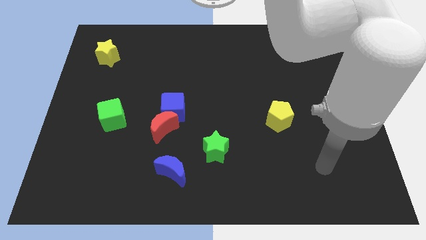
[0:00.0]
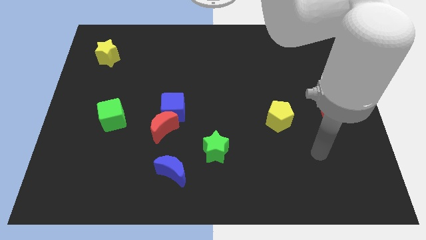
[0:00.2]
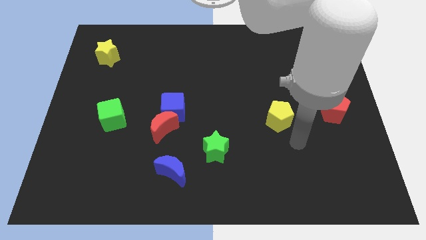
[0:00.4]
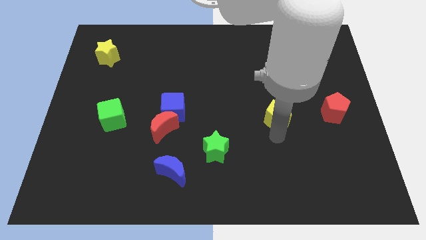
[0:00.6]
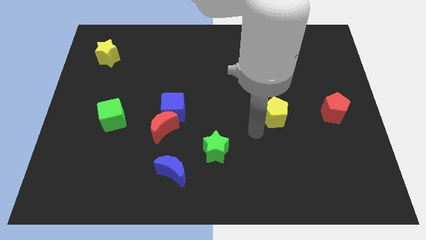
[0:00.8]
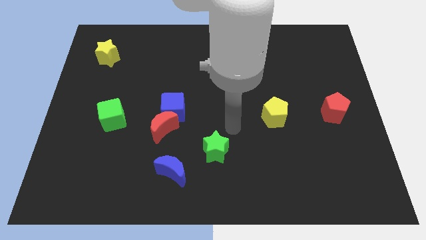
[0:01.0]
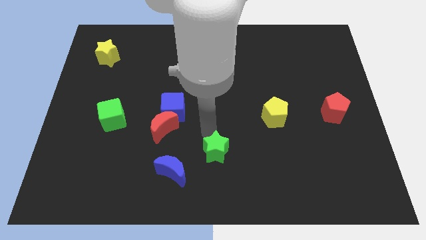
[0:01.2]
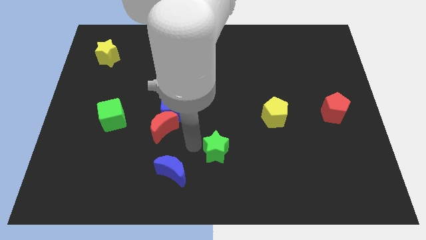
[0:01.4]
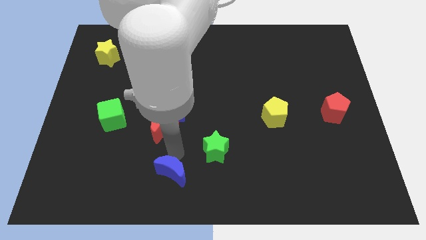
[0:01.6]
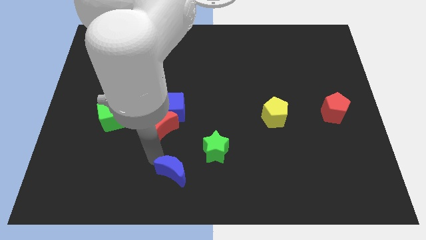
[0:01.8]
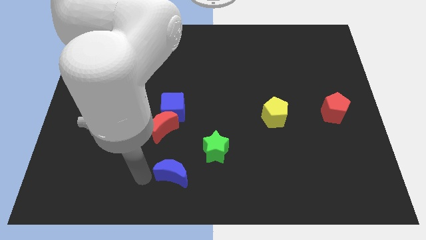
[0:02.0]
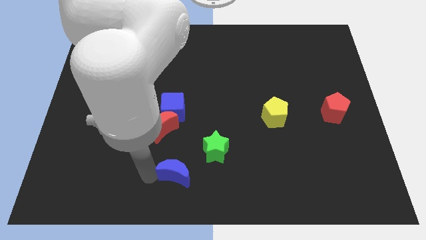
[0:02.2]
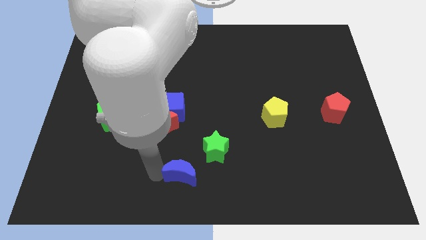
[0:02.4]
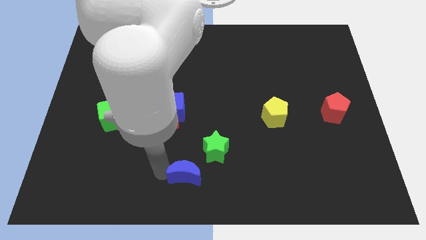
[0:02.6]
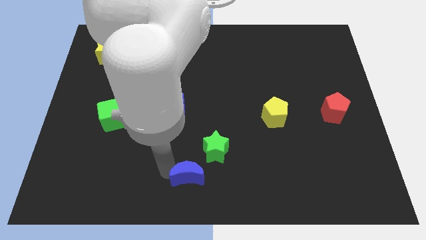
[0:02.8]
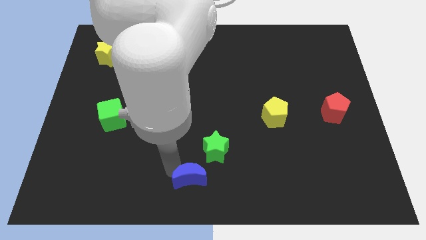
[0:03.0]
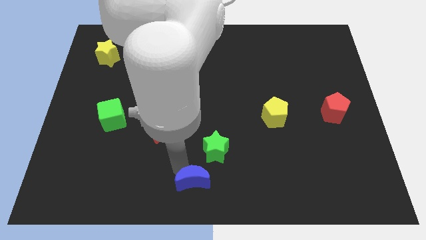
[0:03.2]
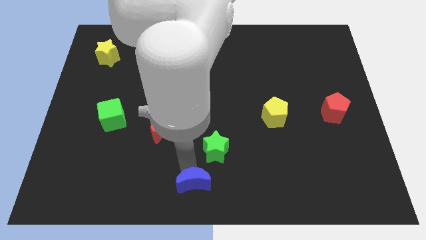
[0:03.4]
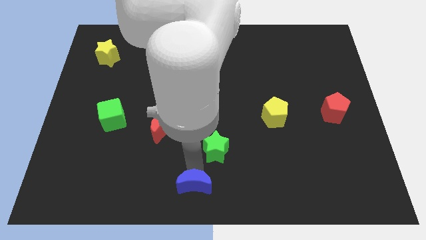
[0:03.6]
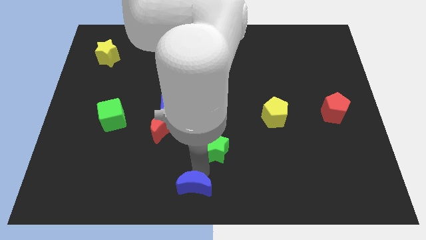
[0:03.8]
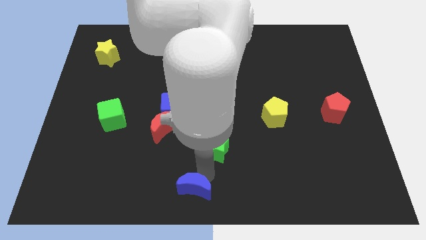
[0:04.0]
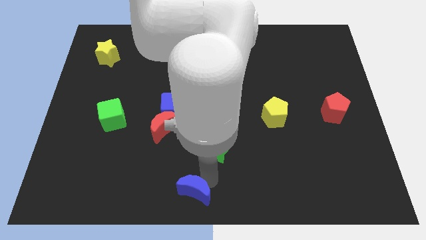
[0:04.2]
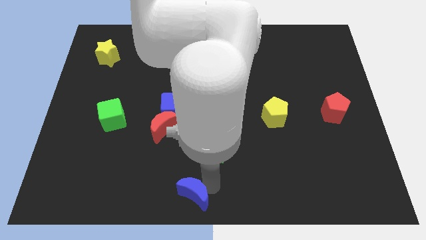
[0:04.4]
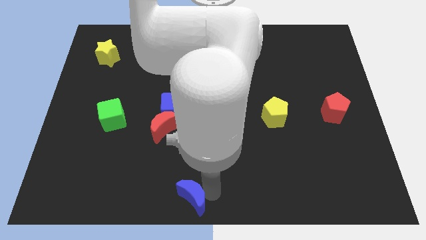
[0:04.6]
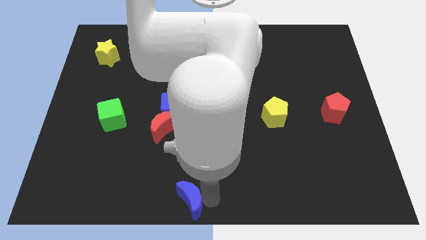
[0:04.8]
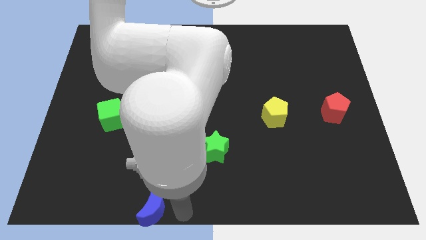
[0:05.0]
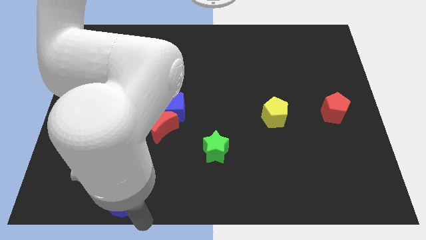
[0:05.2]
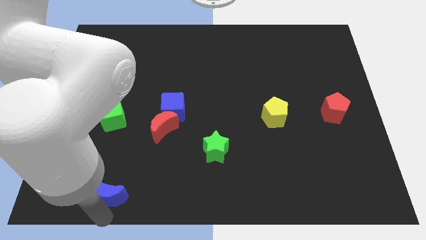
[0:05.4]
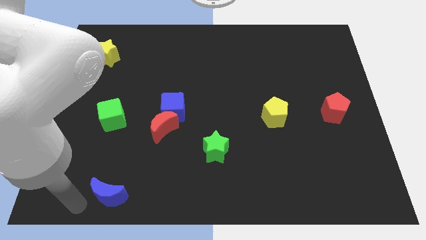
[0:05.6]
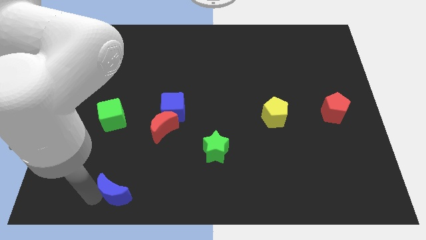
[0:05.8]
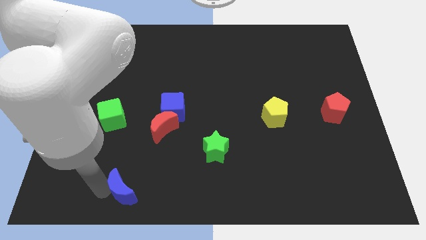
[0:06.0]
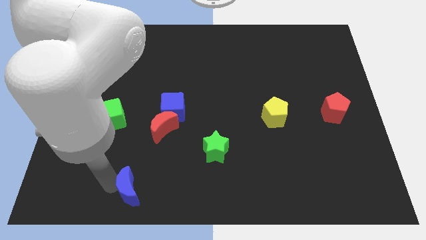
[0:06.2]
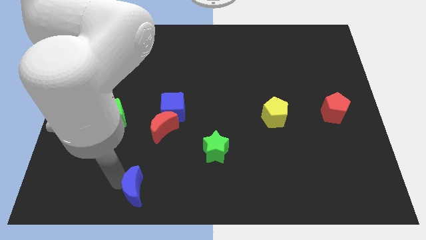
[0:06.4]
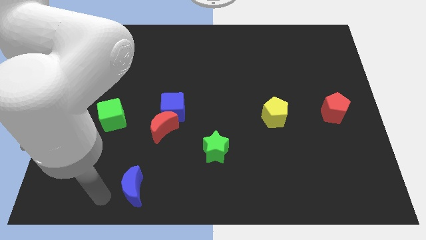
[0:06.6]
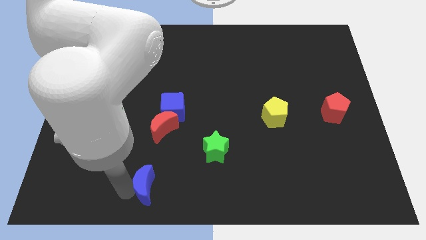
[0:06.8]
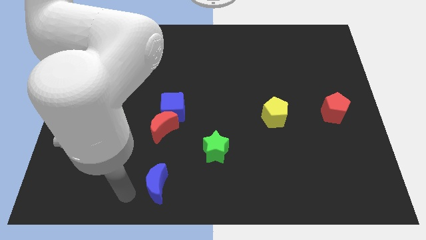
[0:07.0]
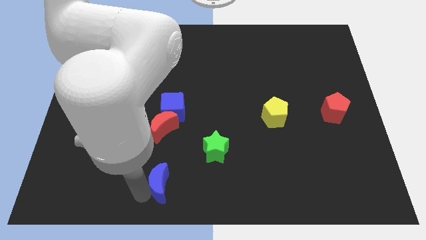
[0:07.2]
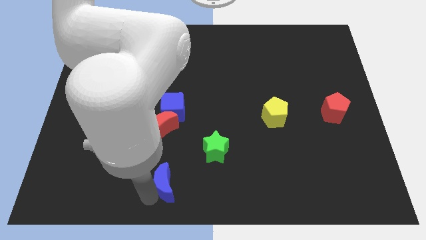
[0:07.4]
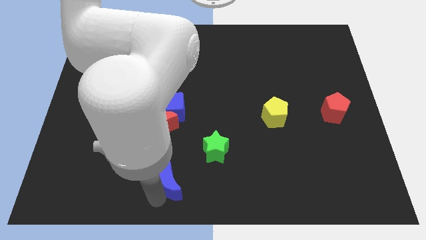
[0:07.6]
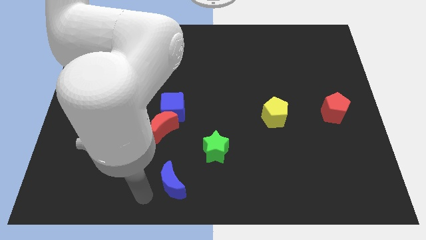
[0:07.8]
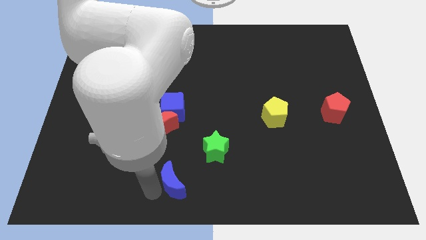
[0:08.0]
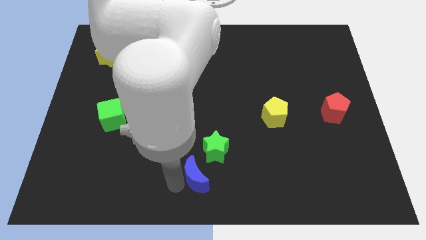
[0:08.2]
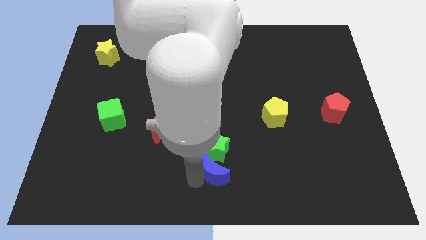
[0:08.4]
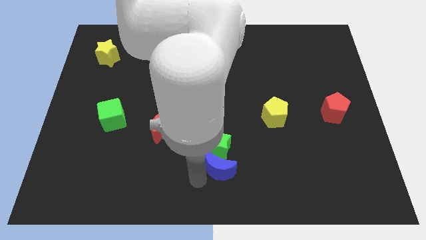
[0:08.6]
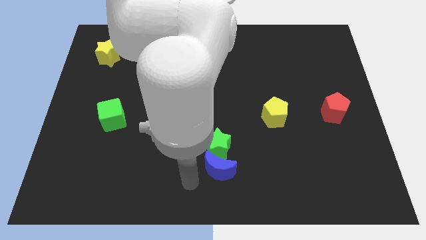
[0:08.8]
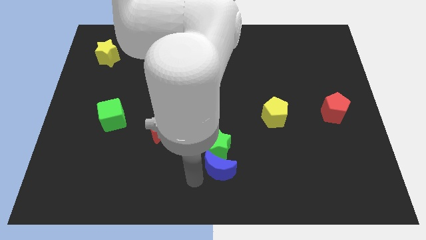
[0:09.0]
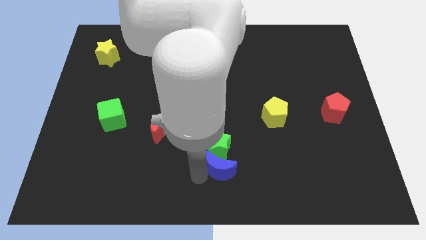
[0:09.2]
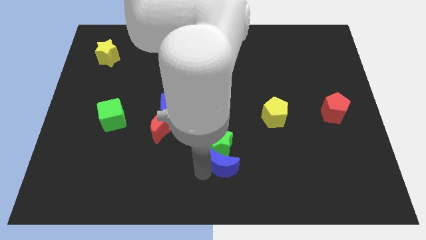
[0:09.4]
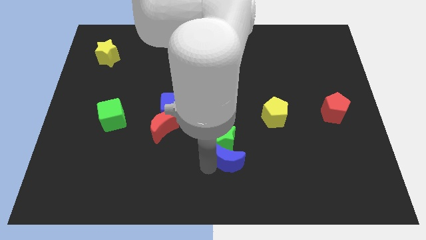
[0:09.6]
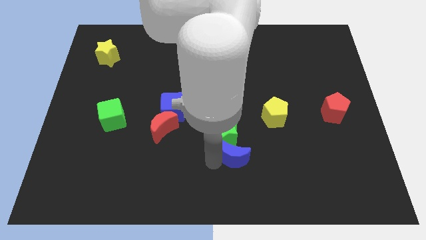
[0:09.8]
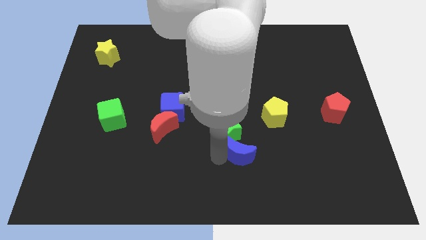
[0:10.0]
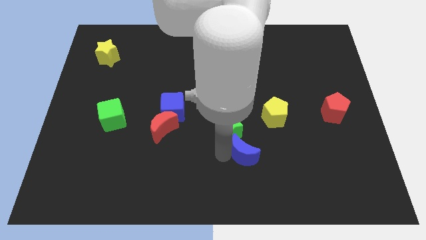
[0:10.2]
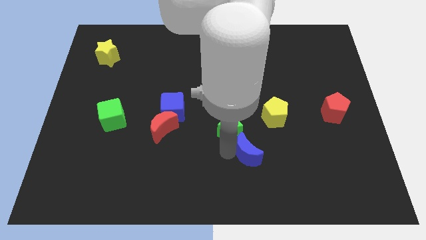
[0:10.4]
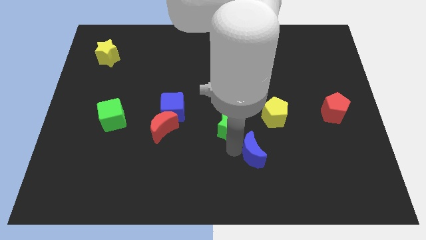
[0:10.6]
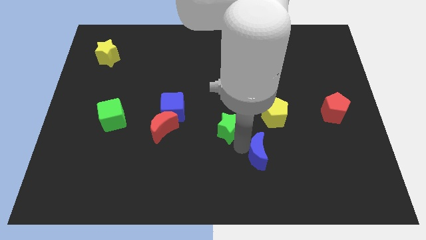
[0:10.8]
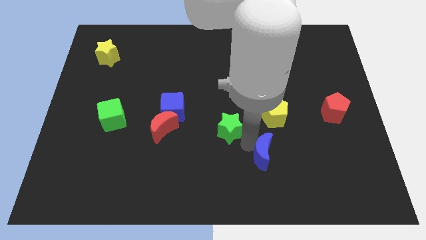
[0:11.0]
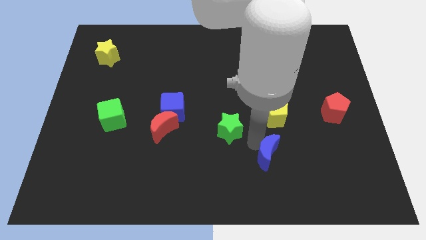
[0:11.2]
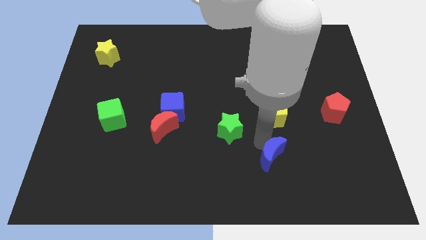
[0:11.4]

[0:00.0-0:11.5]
push the blue moon right

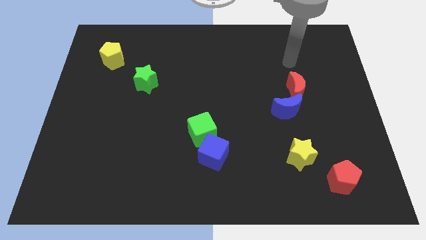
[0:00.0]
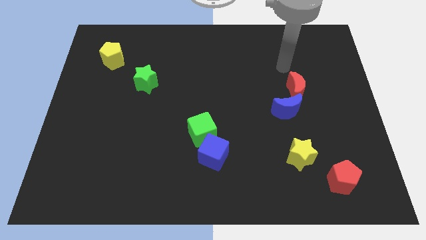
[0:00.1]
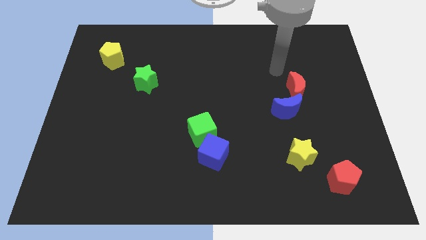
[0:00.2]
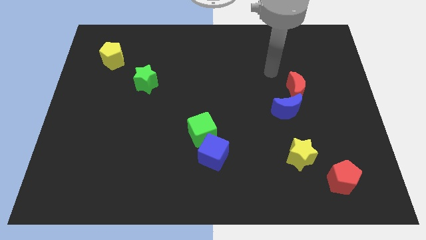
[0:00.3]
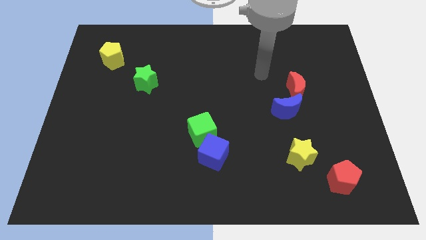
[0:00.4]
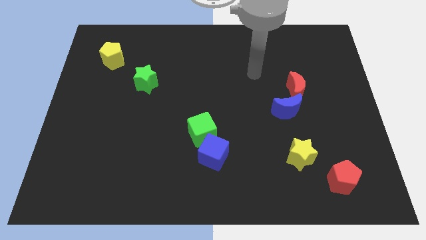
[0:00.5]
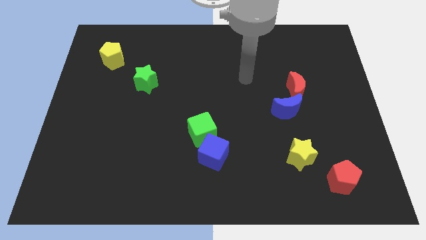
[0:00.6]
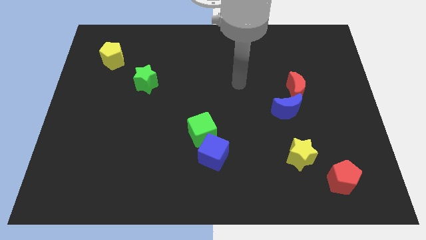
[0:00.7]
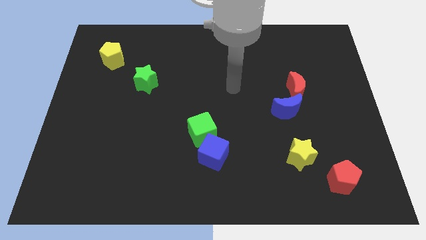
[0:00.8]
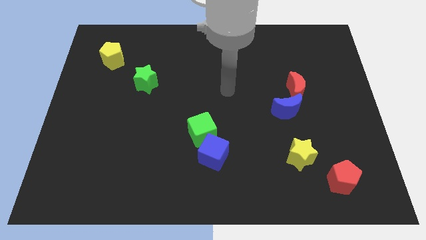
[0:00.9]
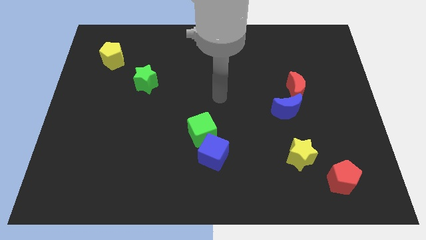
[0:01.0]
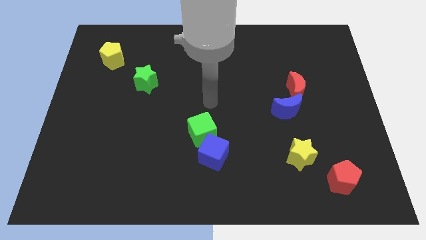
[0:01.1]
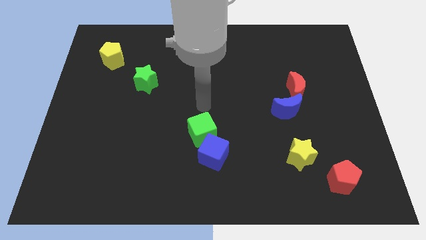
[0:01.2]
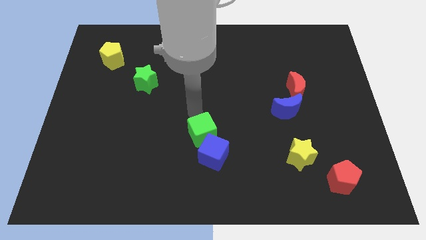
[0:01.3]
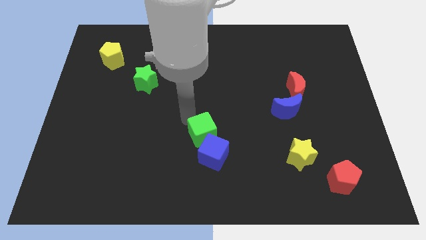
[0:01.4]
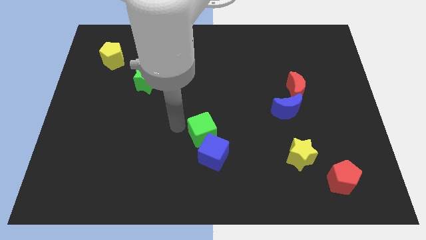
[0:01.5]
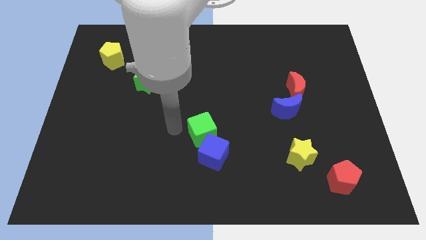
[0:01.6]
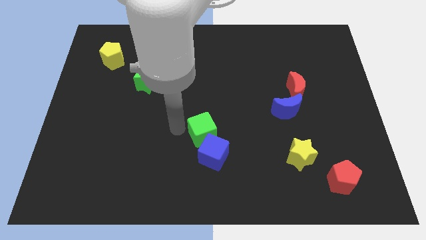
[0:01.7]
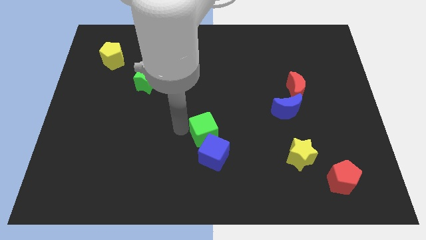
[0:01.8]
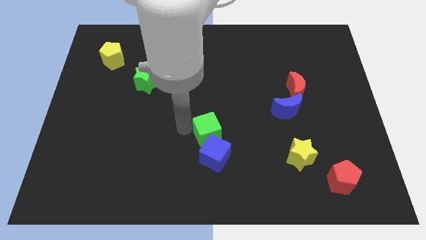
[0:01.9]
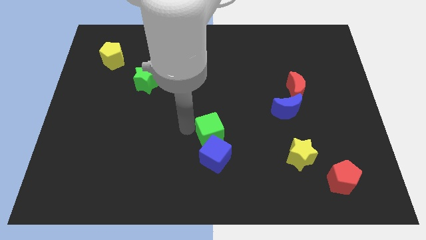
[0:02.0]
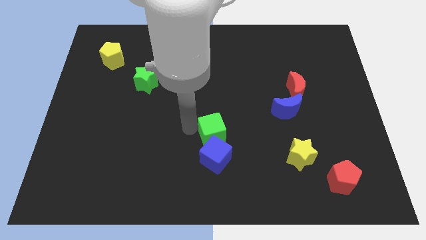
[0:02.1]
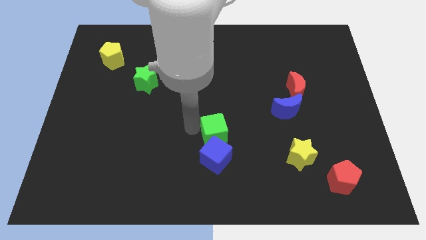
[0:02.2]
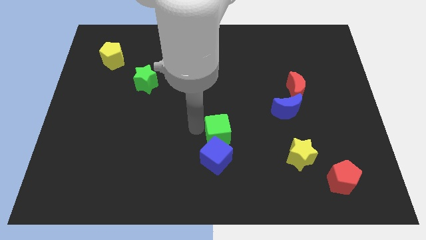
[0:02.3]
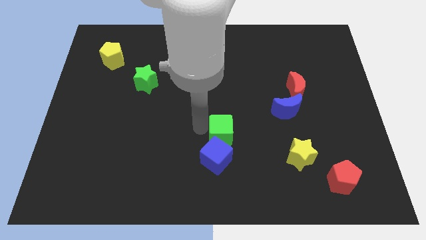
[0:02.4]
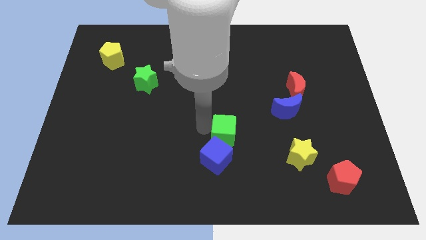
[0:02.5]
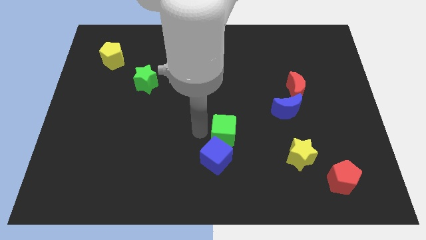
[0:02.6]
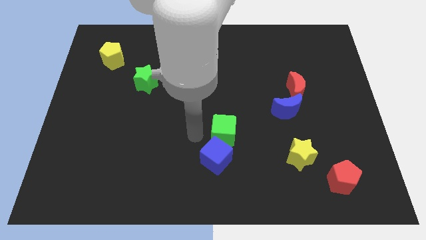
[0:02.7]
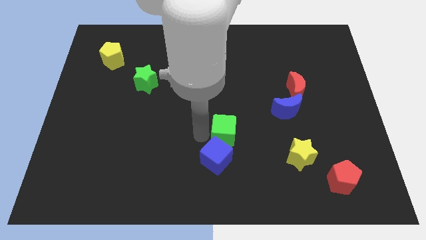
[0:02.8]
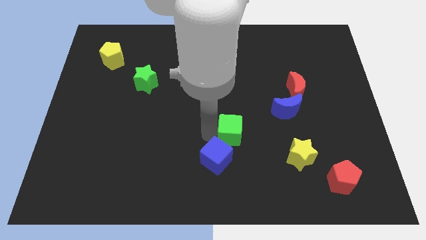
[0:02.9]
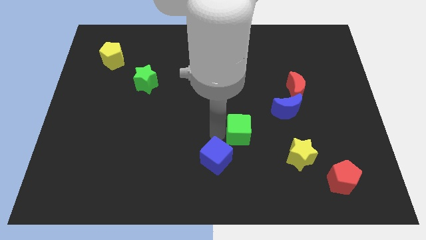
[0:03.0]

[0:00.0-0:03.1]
slightly push the green cube right
